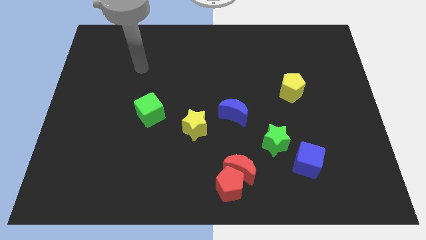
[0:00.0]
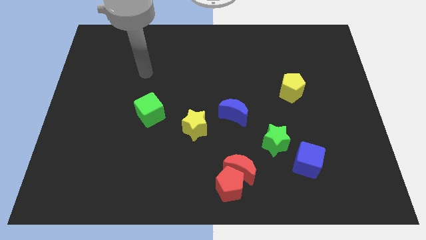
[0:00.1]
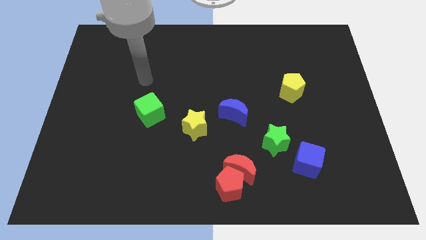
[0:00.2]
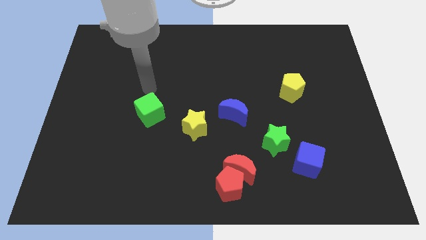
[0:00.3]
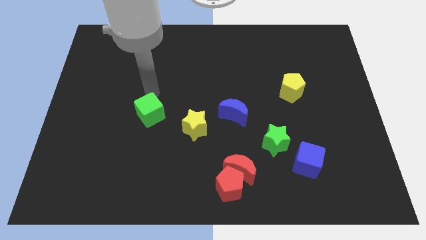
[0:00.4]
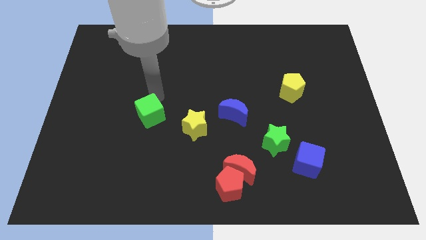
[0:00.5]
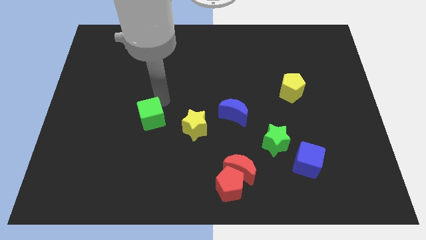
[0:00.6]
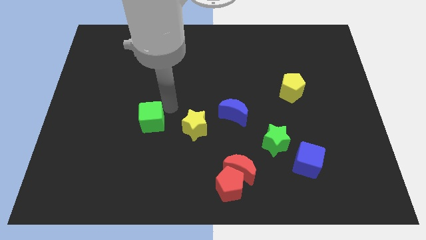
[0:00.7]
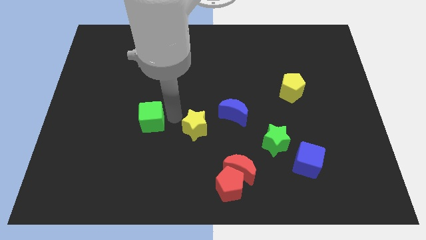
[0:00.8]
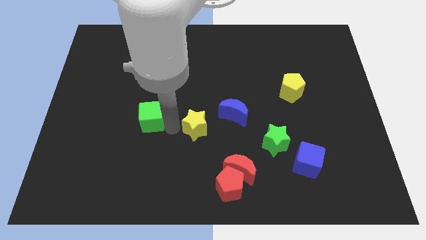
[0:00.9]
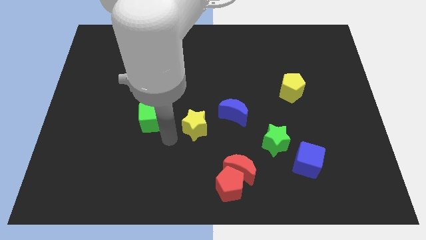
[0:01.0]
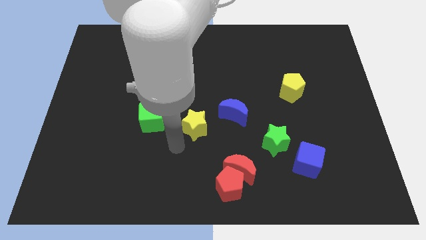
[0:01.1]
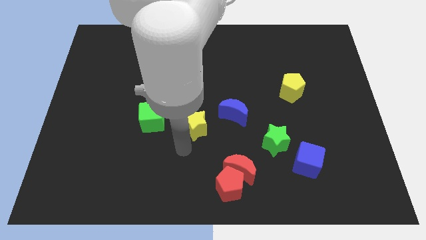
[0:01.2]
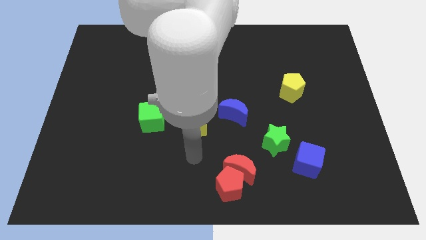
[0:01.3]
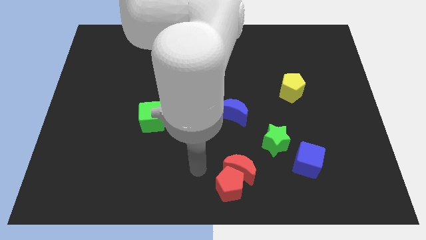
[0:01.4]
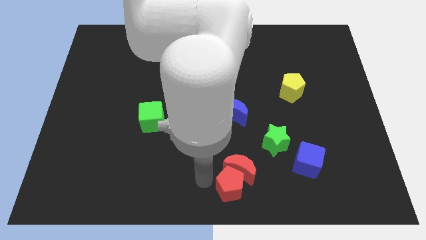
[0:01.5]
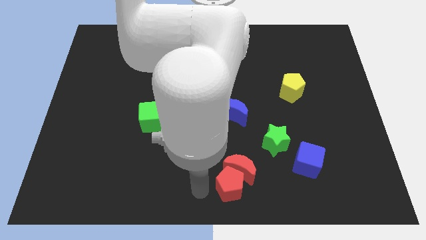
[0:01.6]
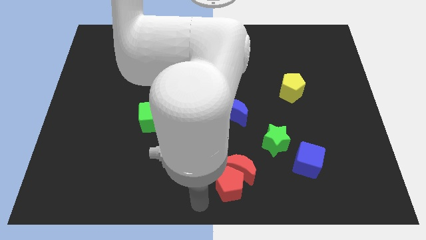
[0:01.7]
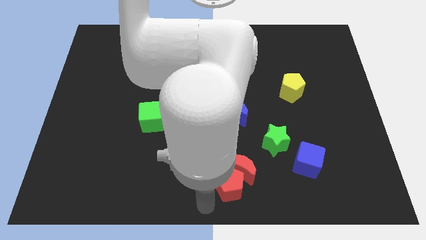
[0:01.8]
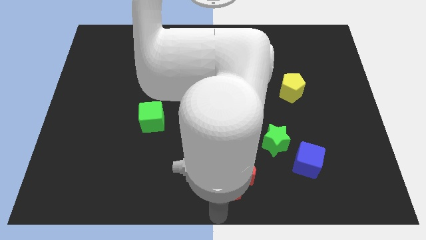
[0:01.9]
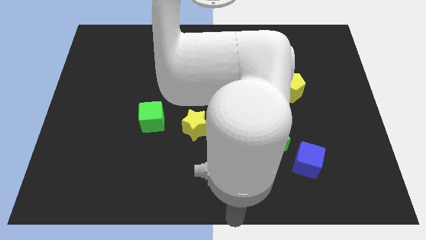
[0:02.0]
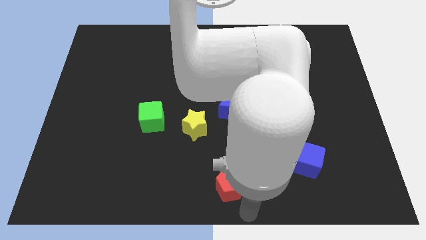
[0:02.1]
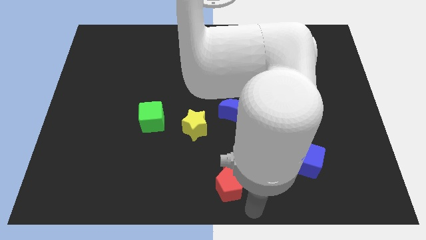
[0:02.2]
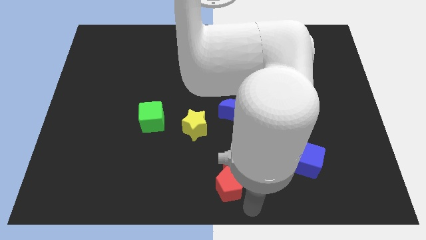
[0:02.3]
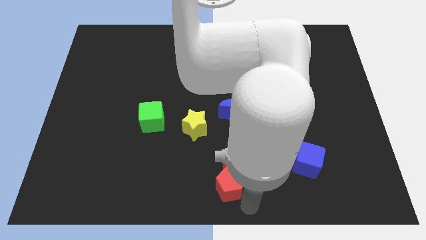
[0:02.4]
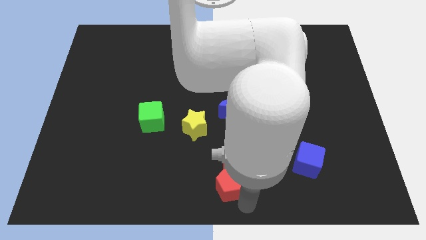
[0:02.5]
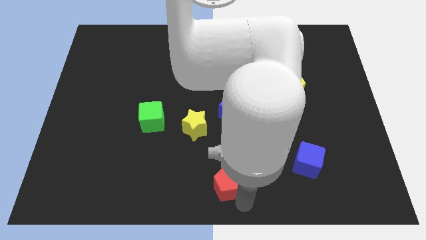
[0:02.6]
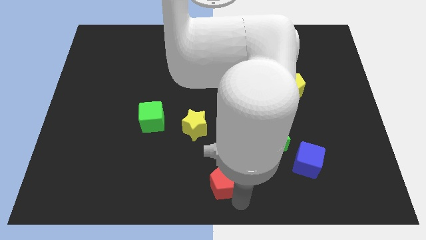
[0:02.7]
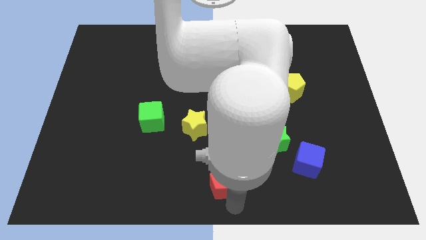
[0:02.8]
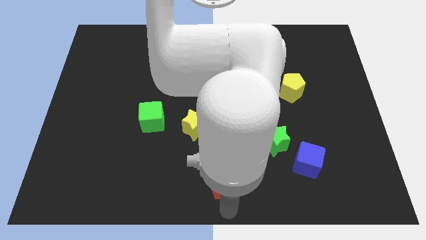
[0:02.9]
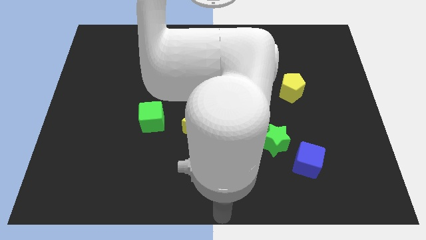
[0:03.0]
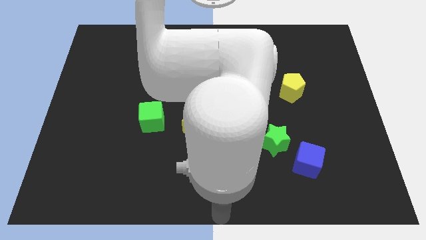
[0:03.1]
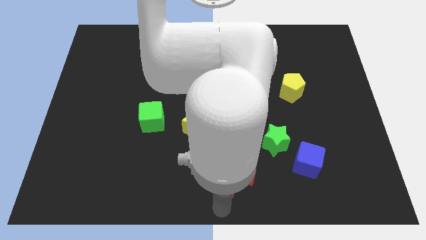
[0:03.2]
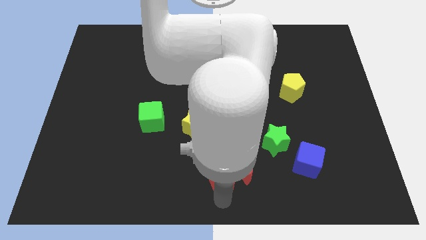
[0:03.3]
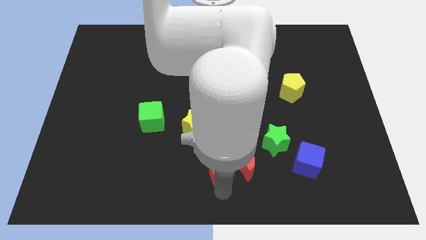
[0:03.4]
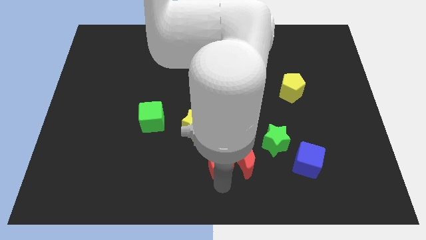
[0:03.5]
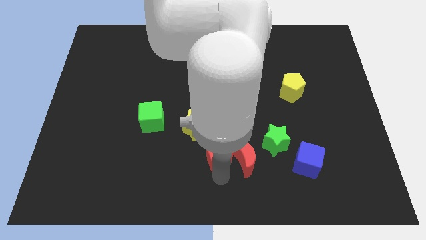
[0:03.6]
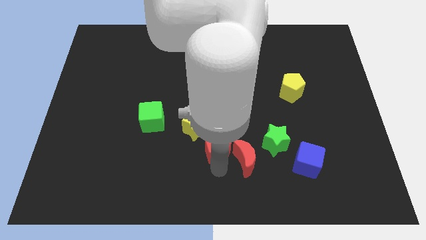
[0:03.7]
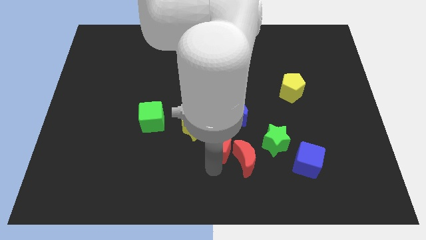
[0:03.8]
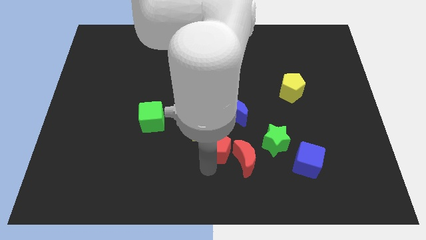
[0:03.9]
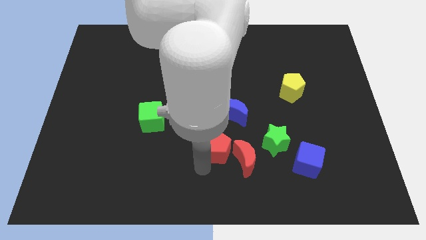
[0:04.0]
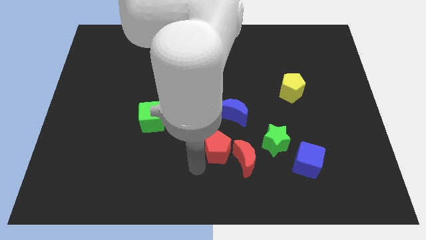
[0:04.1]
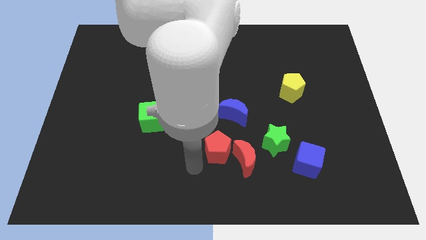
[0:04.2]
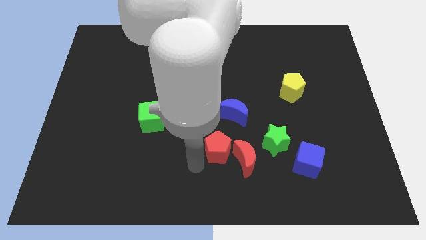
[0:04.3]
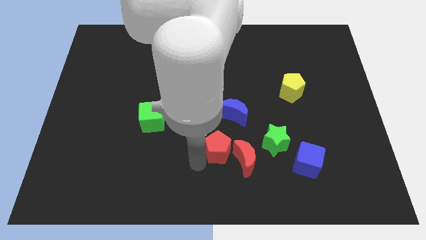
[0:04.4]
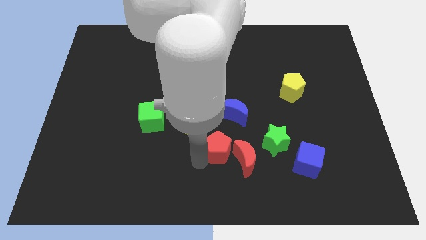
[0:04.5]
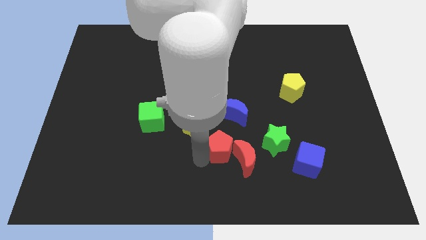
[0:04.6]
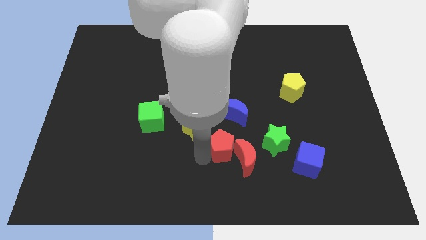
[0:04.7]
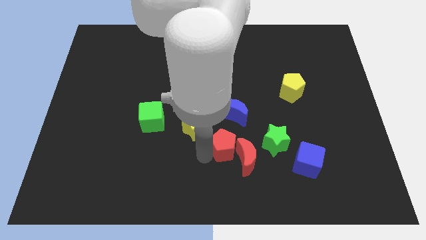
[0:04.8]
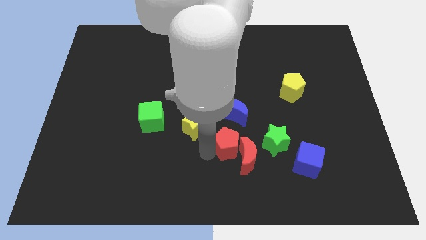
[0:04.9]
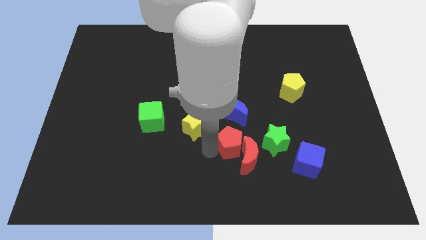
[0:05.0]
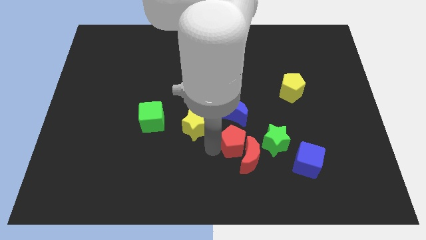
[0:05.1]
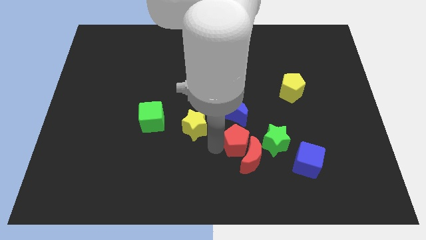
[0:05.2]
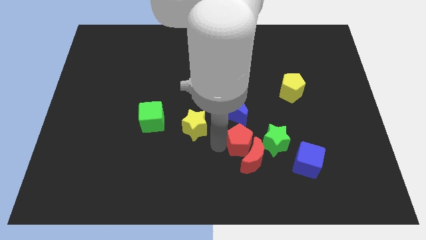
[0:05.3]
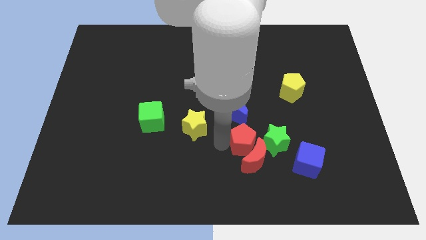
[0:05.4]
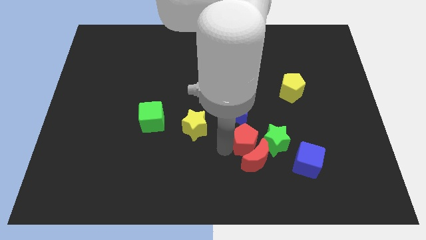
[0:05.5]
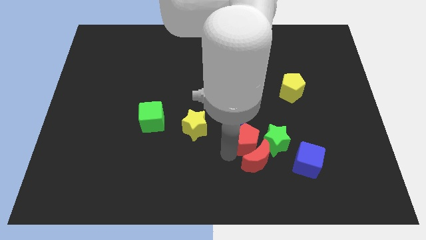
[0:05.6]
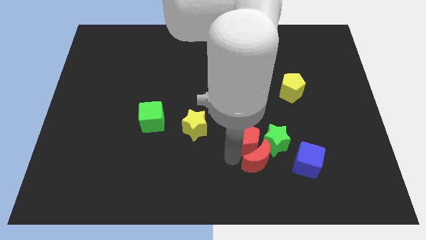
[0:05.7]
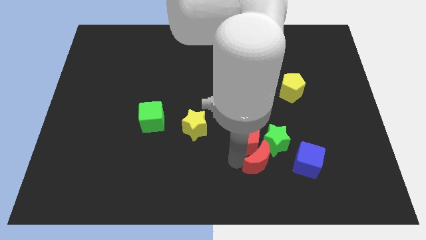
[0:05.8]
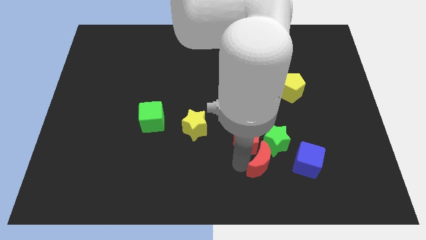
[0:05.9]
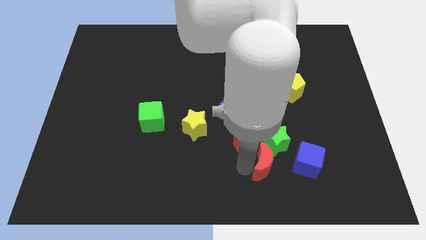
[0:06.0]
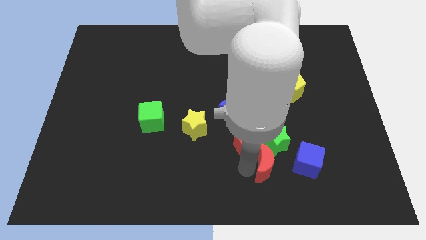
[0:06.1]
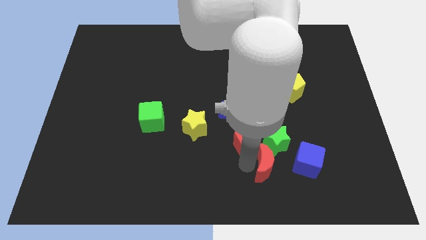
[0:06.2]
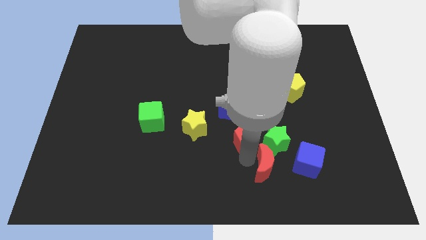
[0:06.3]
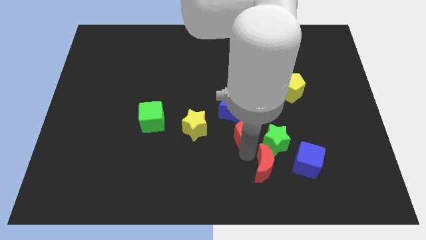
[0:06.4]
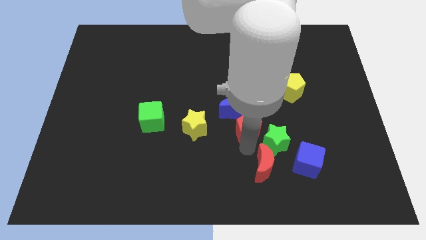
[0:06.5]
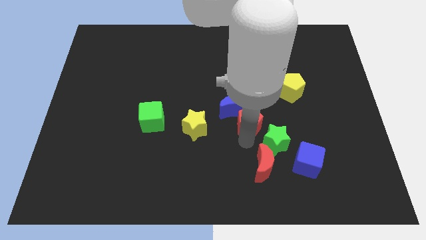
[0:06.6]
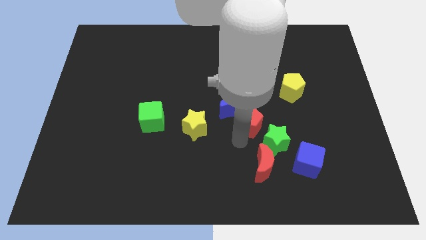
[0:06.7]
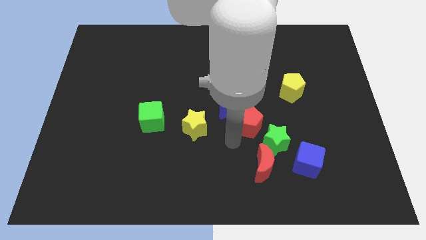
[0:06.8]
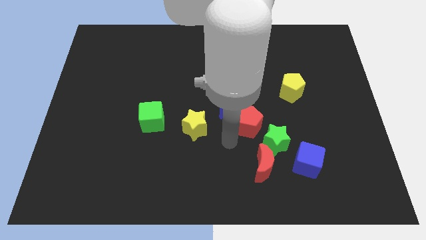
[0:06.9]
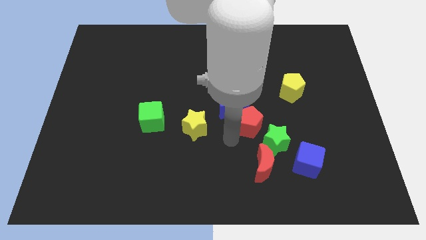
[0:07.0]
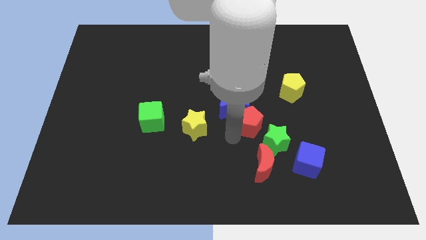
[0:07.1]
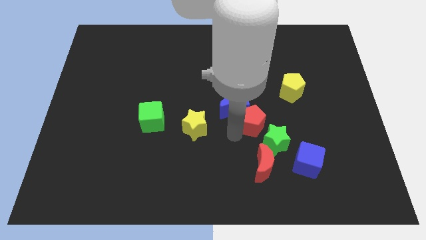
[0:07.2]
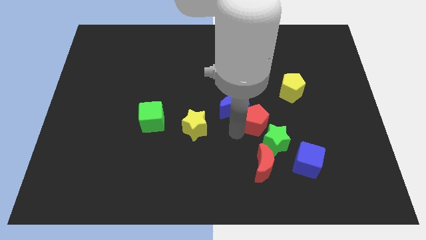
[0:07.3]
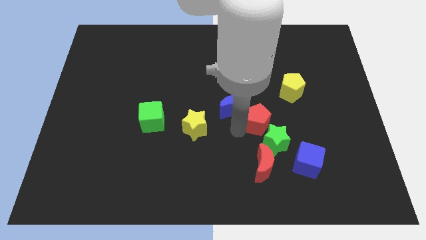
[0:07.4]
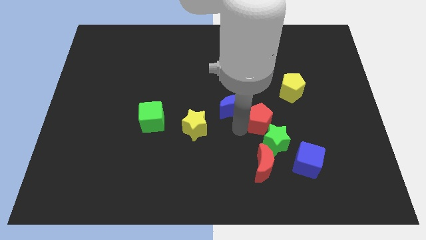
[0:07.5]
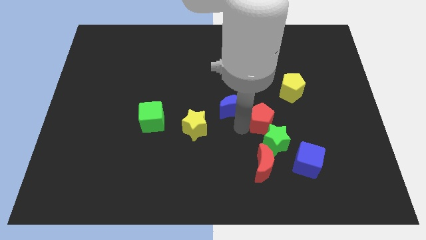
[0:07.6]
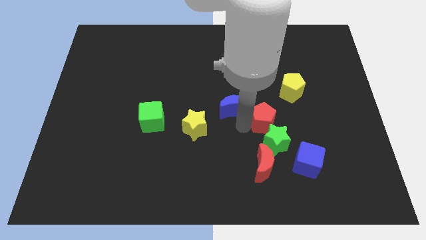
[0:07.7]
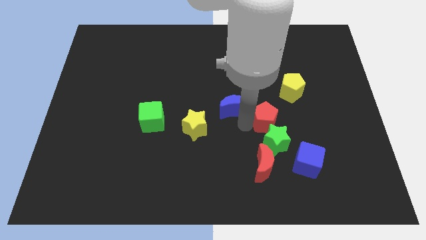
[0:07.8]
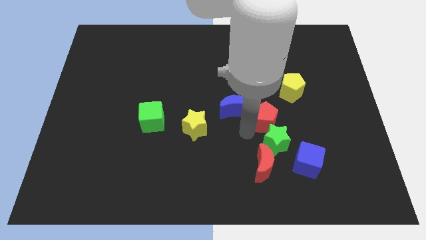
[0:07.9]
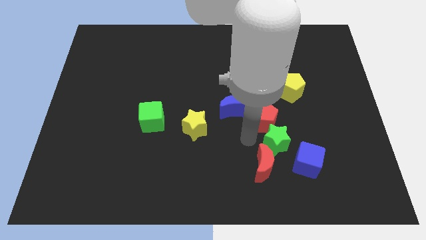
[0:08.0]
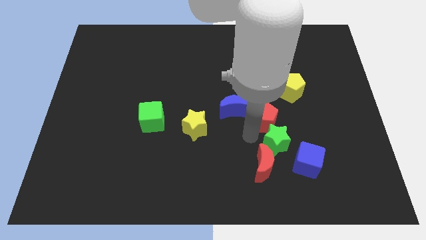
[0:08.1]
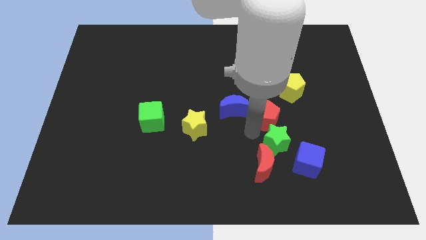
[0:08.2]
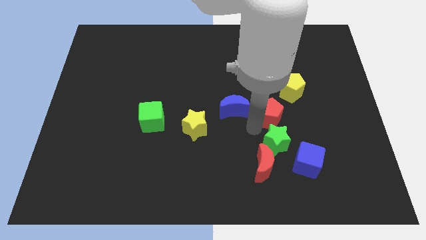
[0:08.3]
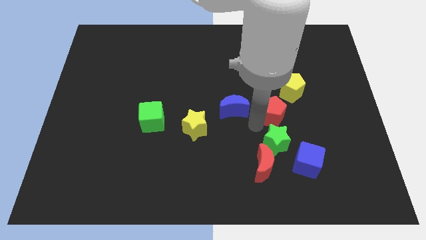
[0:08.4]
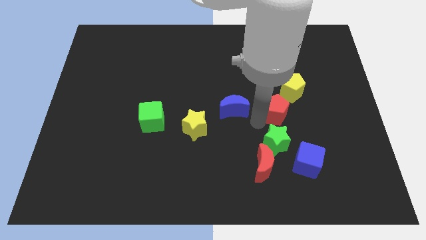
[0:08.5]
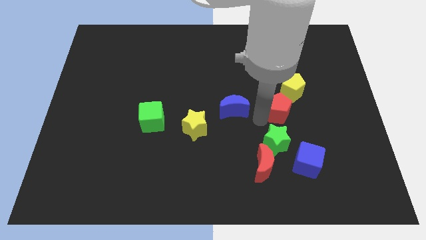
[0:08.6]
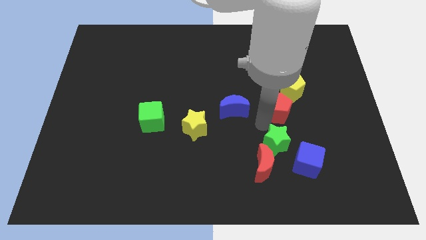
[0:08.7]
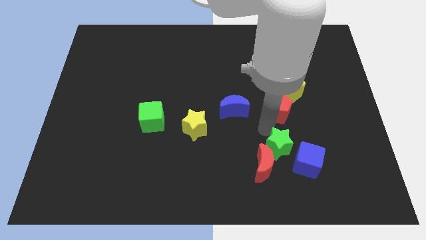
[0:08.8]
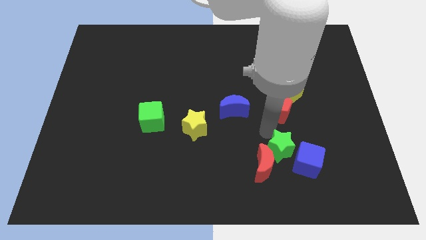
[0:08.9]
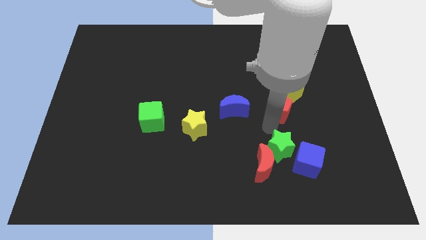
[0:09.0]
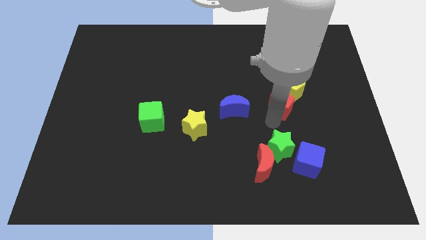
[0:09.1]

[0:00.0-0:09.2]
put the red pentagon close to the yellow pentagon
